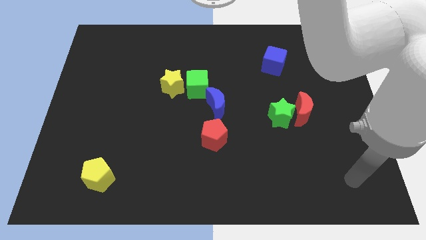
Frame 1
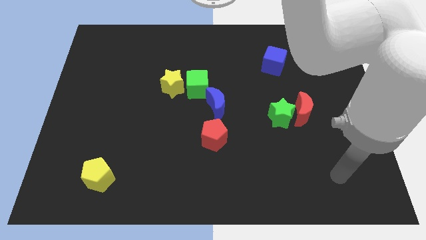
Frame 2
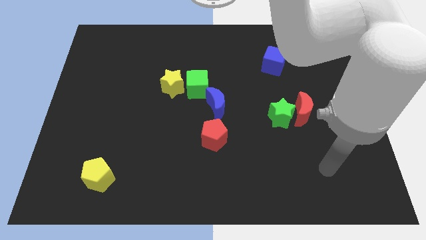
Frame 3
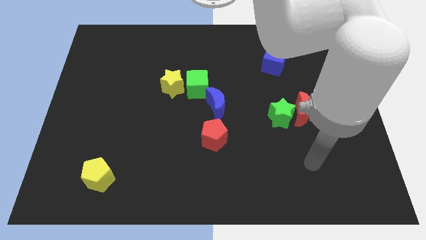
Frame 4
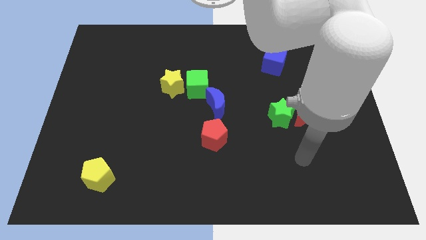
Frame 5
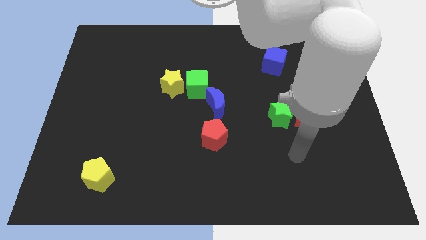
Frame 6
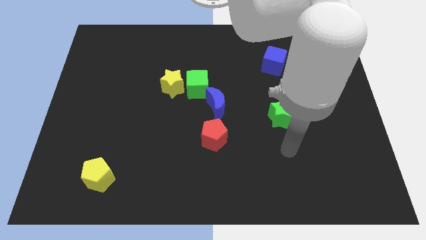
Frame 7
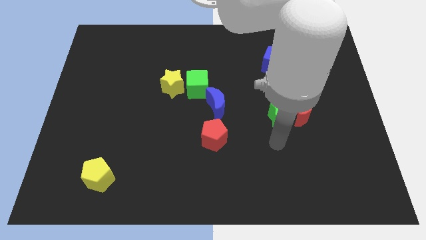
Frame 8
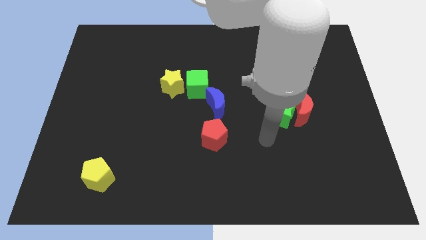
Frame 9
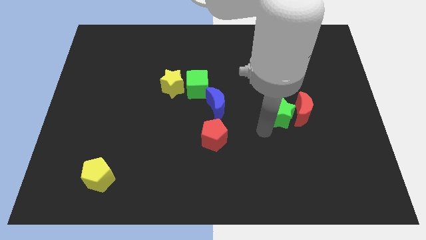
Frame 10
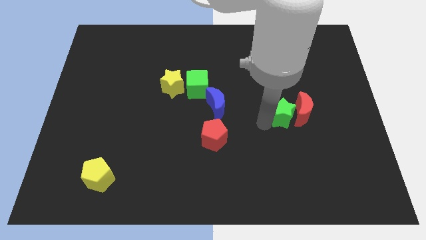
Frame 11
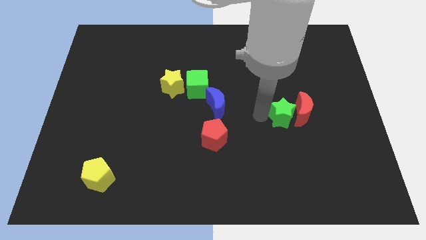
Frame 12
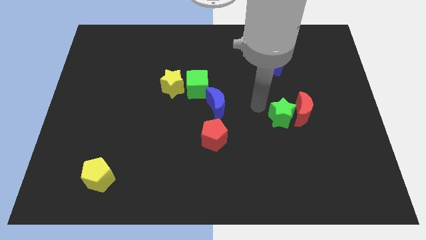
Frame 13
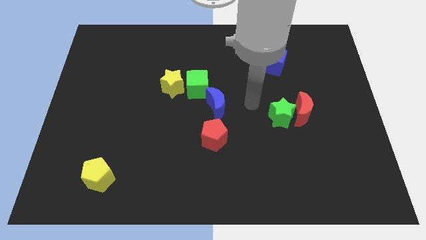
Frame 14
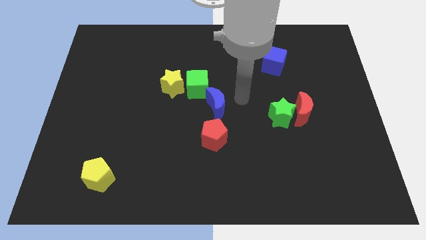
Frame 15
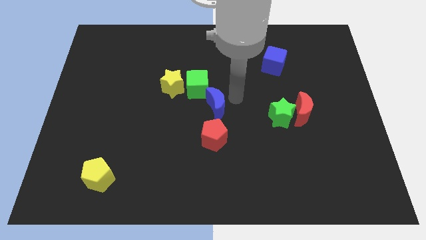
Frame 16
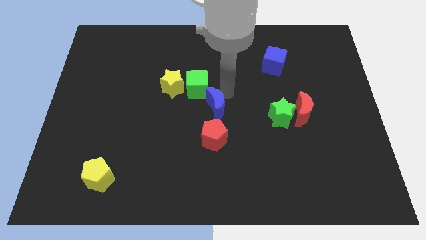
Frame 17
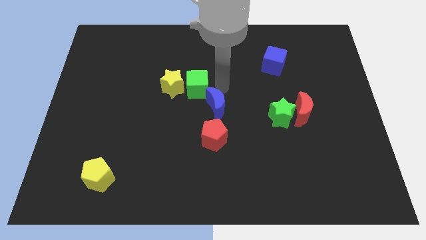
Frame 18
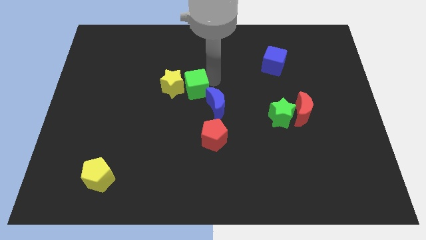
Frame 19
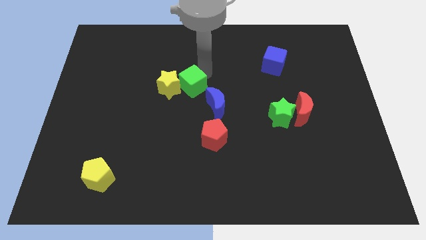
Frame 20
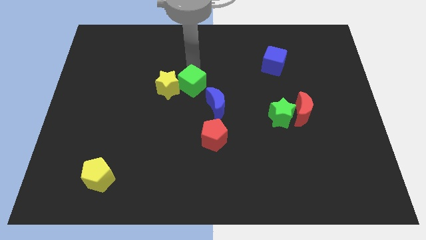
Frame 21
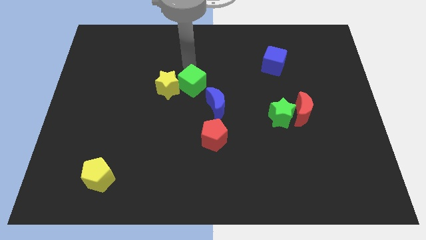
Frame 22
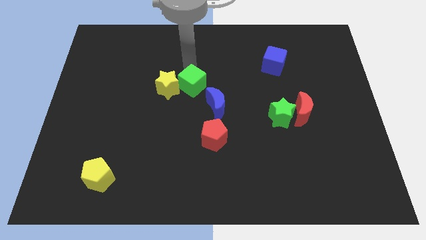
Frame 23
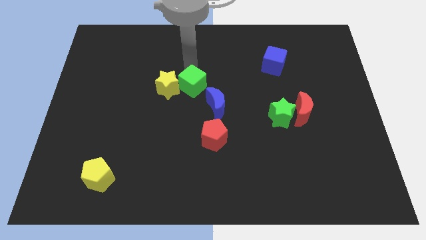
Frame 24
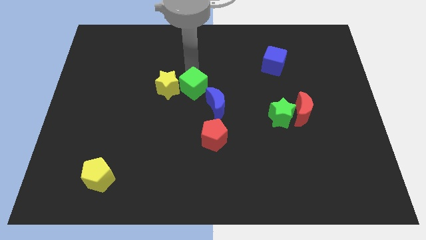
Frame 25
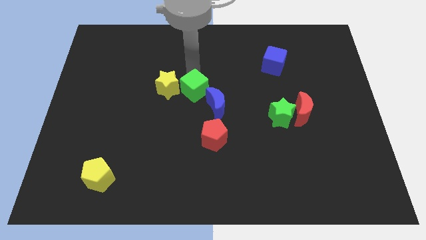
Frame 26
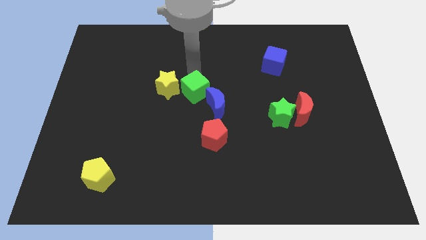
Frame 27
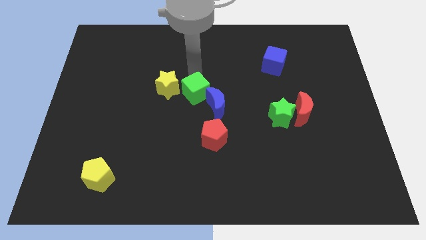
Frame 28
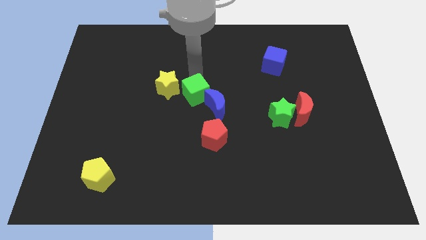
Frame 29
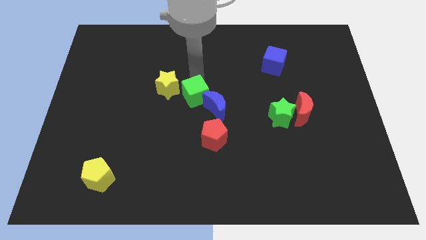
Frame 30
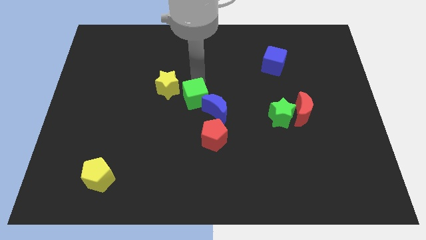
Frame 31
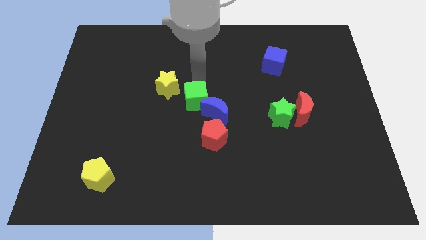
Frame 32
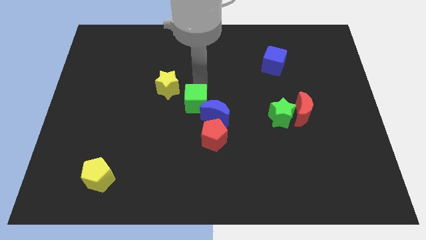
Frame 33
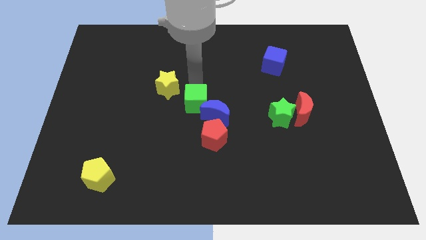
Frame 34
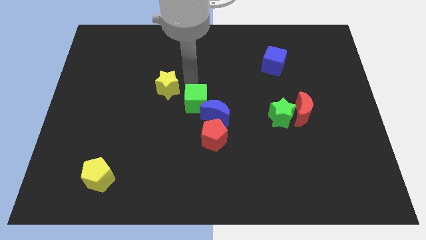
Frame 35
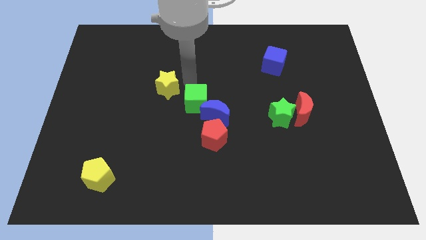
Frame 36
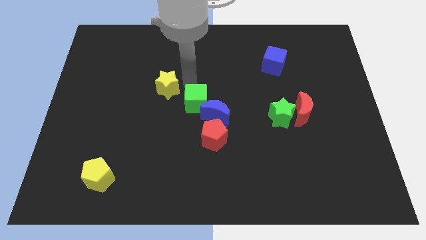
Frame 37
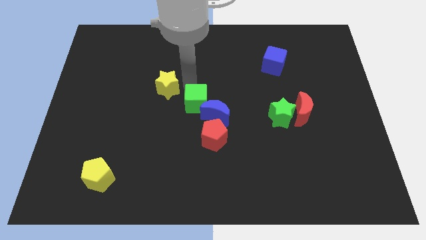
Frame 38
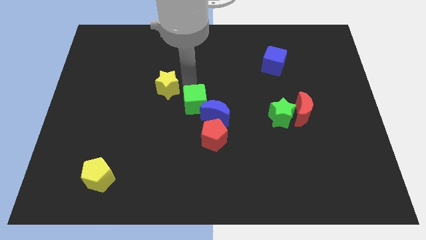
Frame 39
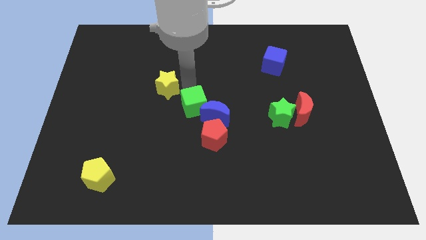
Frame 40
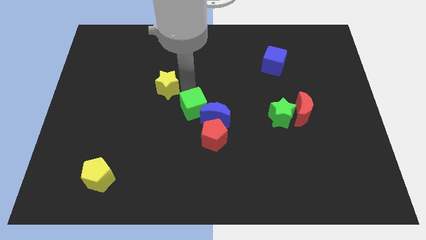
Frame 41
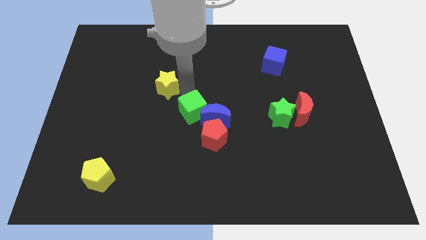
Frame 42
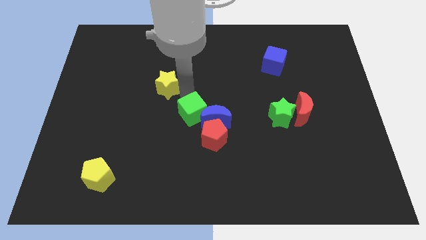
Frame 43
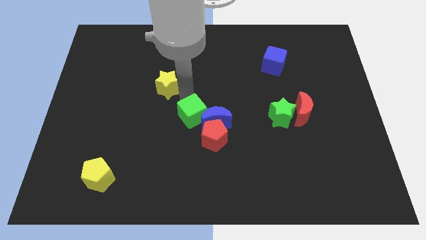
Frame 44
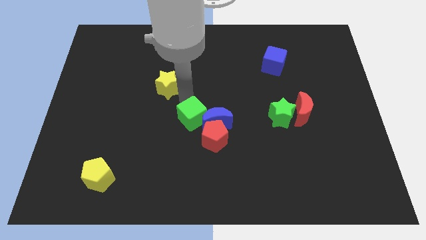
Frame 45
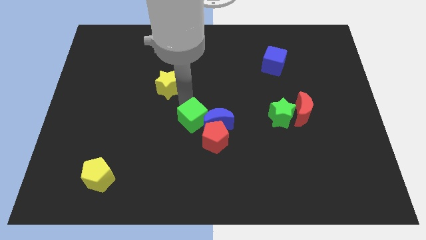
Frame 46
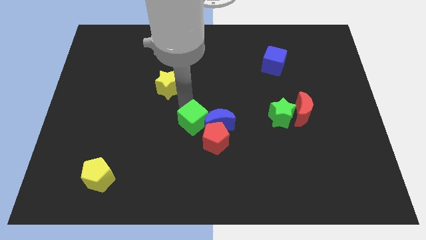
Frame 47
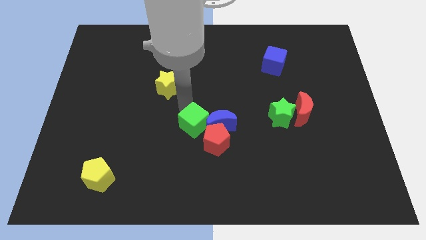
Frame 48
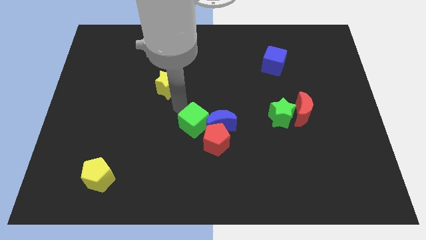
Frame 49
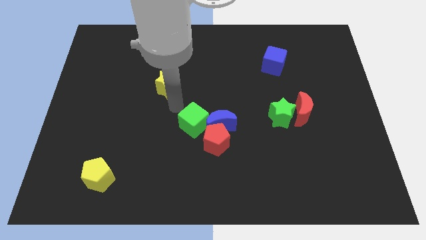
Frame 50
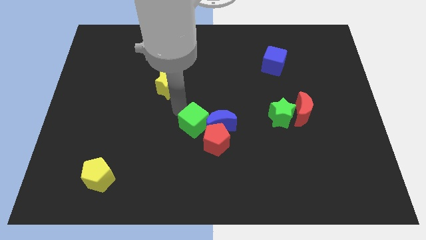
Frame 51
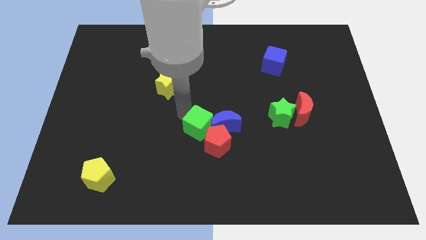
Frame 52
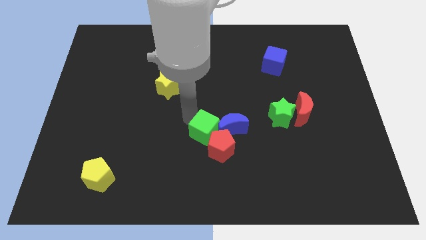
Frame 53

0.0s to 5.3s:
push the green cube towards the red pentagon

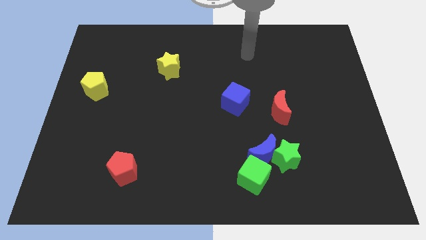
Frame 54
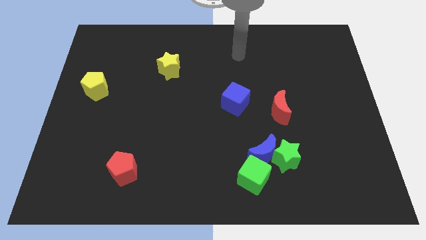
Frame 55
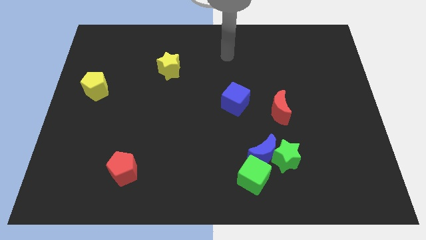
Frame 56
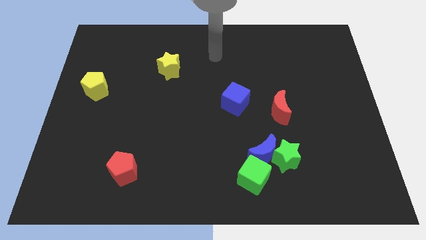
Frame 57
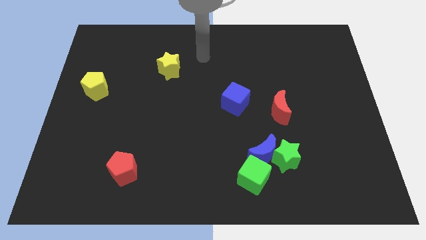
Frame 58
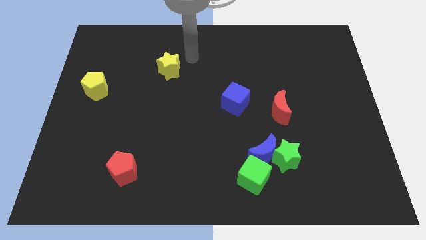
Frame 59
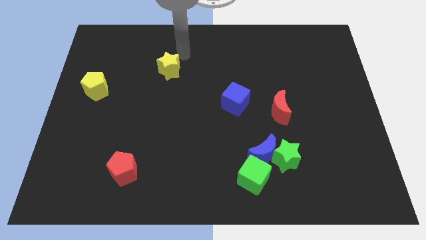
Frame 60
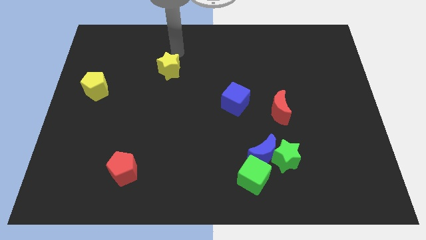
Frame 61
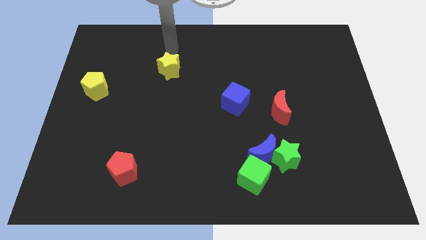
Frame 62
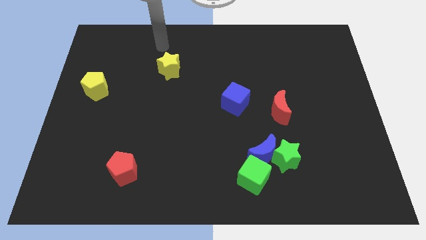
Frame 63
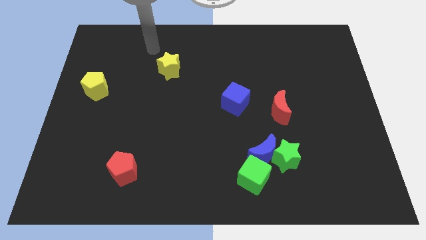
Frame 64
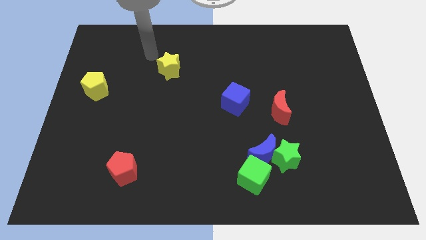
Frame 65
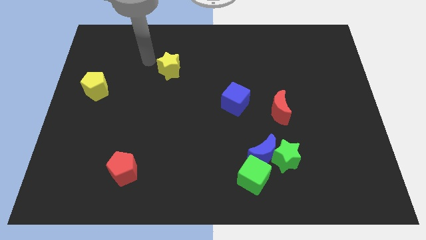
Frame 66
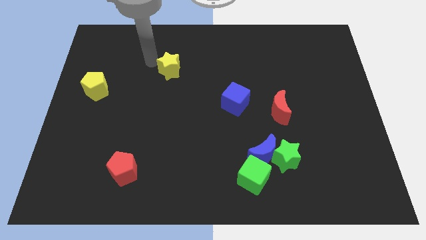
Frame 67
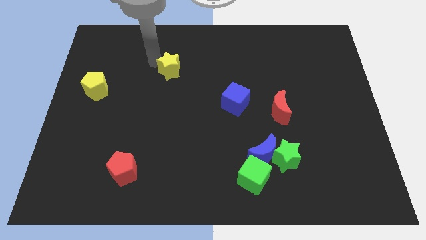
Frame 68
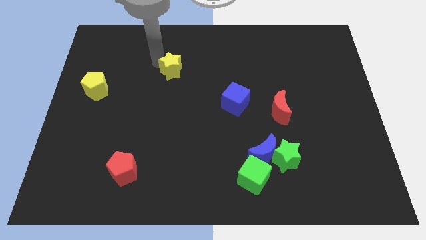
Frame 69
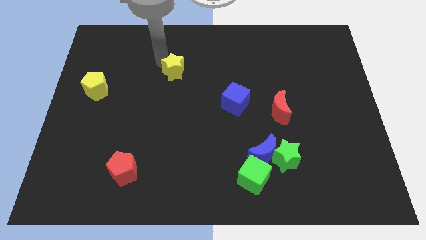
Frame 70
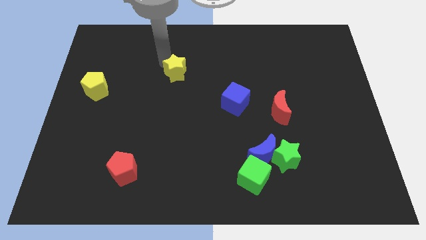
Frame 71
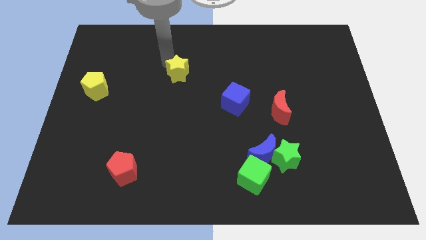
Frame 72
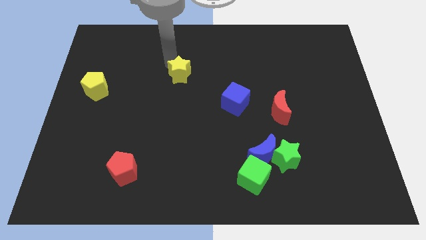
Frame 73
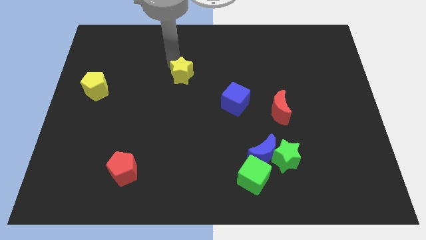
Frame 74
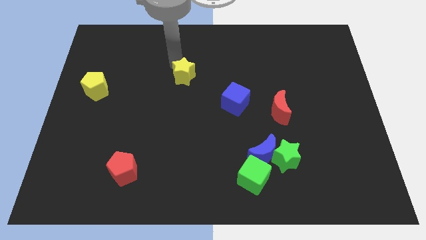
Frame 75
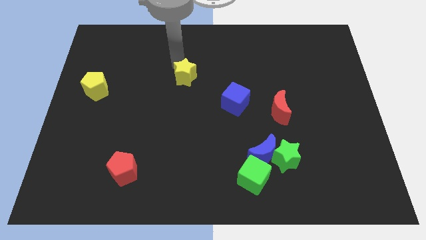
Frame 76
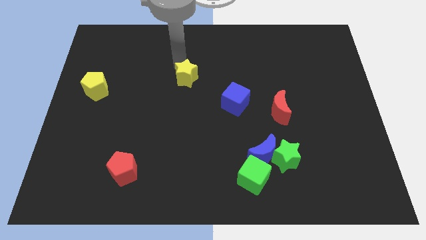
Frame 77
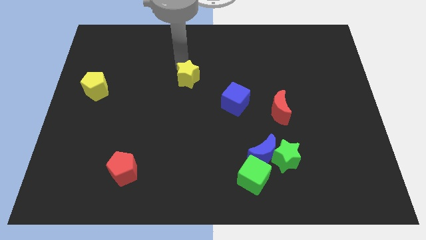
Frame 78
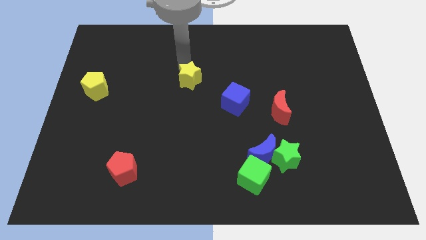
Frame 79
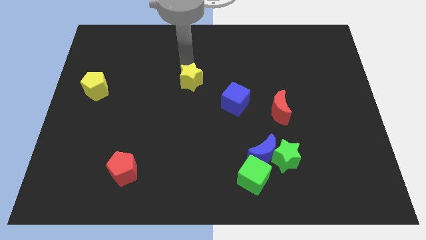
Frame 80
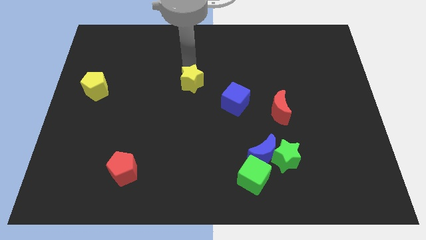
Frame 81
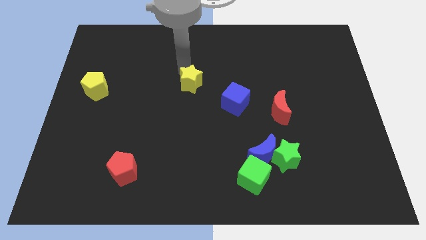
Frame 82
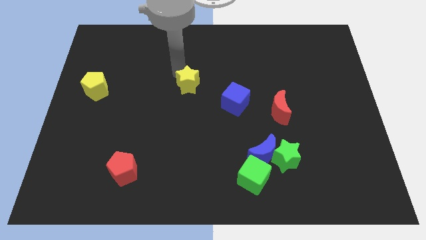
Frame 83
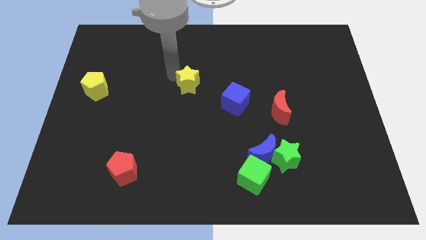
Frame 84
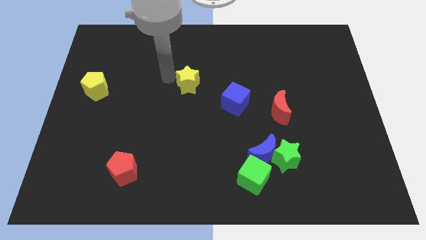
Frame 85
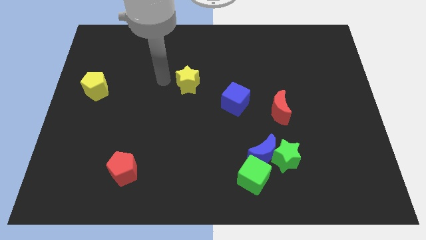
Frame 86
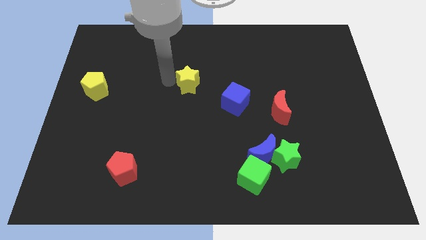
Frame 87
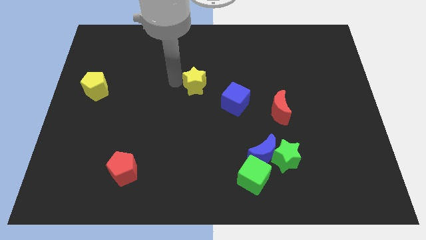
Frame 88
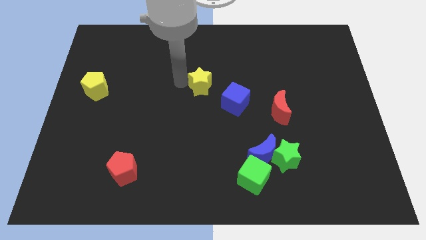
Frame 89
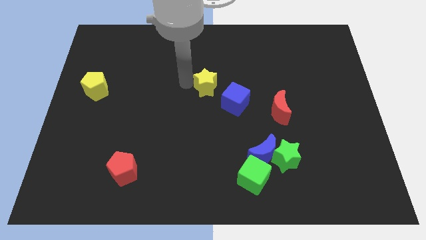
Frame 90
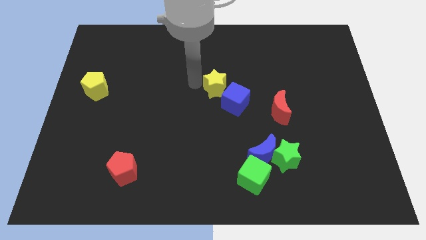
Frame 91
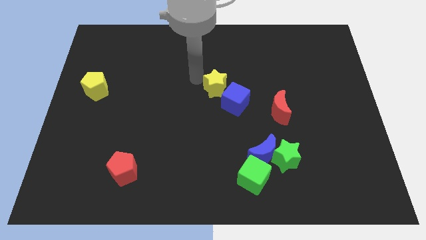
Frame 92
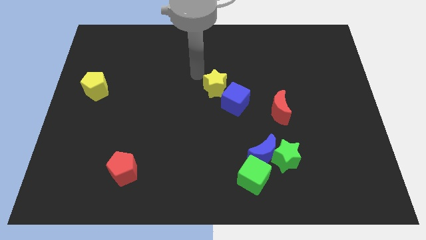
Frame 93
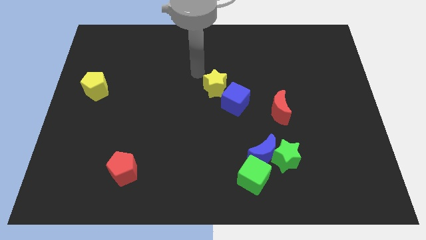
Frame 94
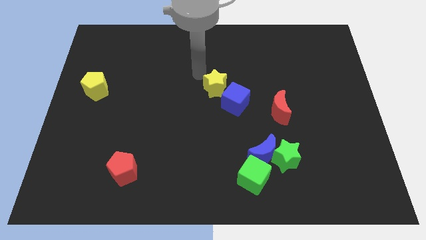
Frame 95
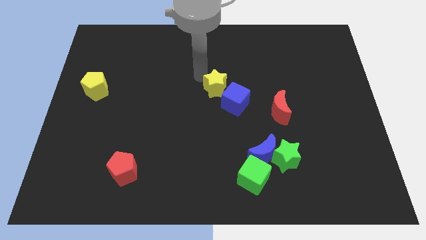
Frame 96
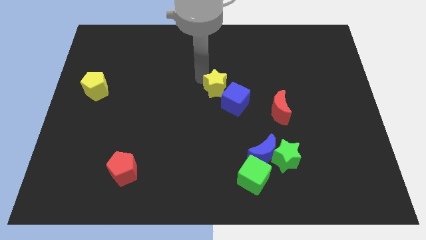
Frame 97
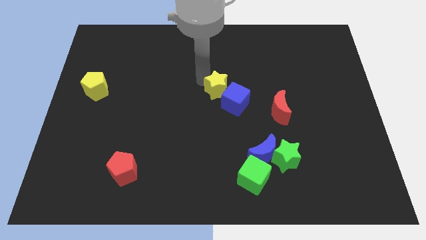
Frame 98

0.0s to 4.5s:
slide the yellow star next to the blue cube
